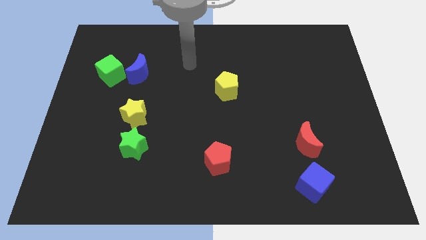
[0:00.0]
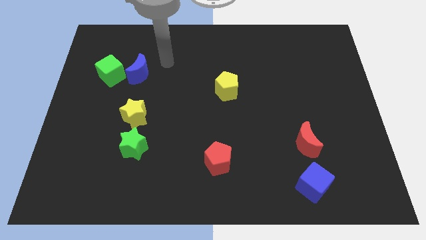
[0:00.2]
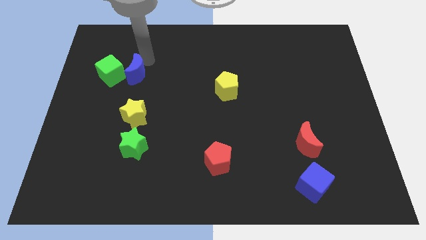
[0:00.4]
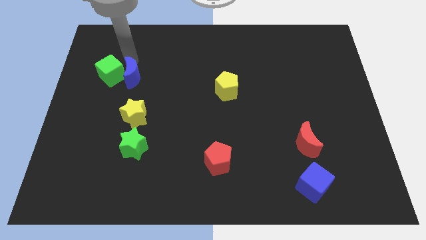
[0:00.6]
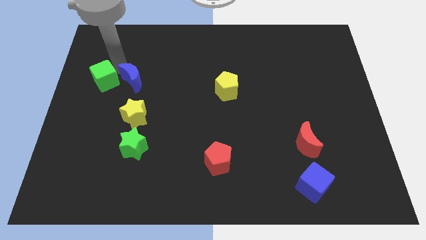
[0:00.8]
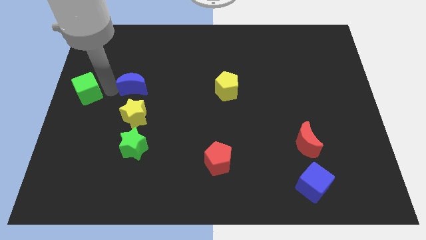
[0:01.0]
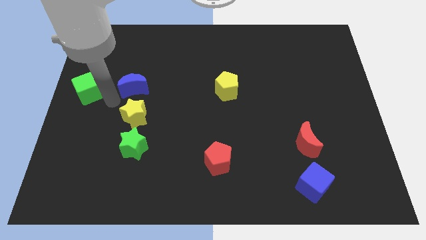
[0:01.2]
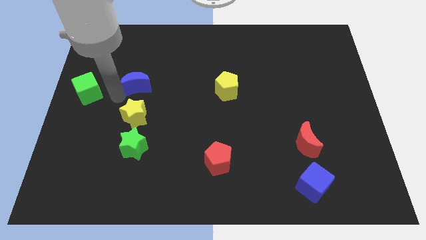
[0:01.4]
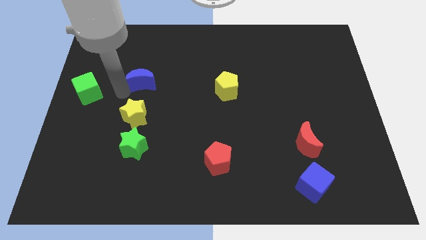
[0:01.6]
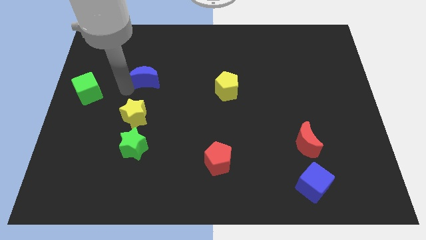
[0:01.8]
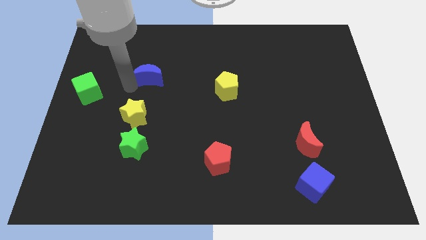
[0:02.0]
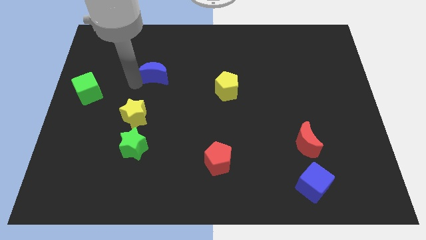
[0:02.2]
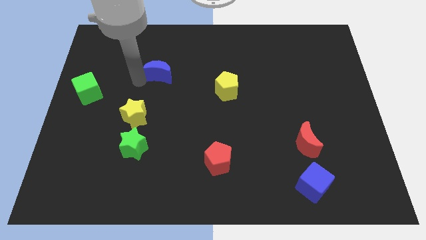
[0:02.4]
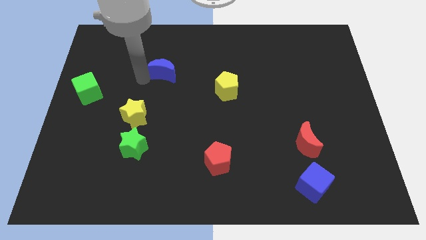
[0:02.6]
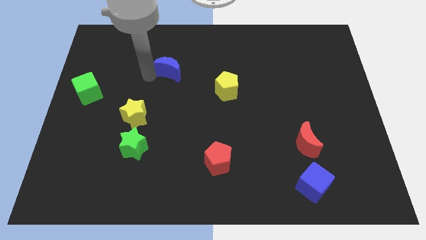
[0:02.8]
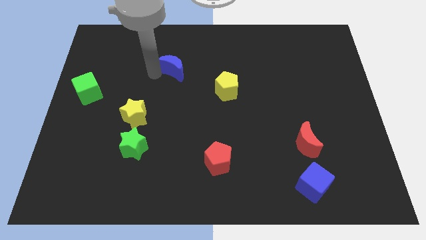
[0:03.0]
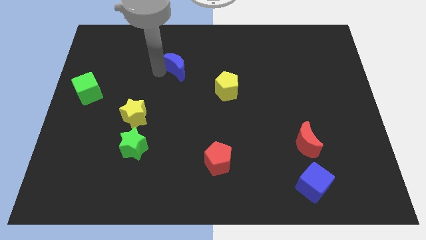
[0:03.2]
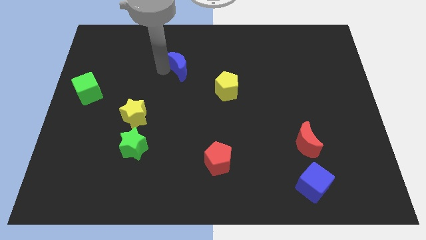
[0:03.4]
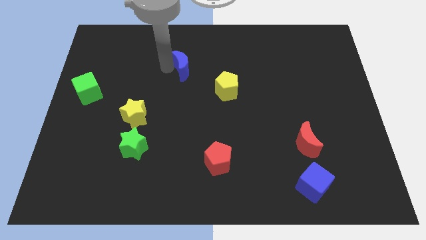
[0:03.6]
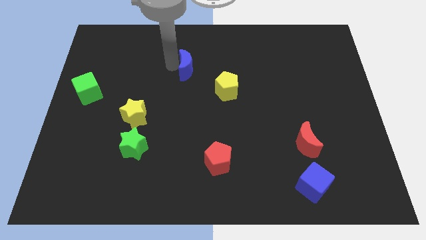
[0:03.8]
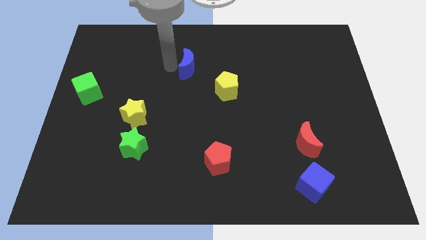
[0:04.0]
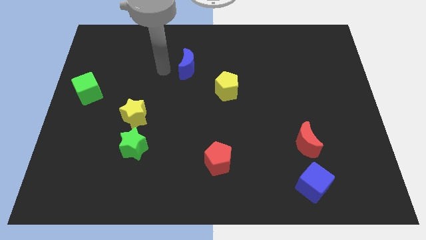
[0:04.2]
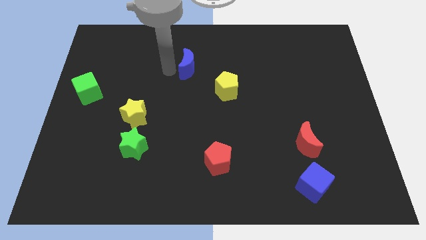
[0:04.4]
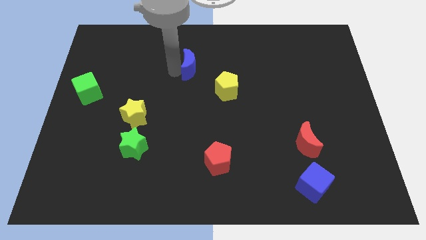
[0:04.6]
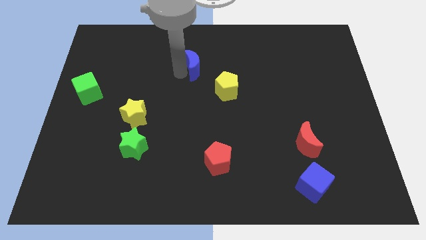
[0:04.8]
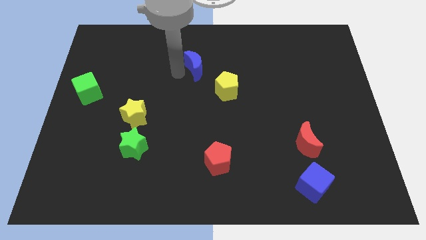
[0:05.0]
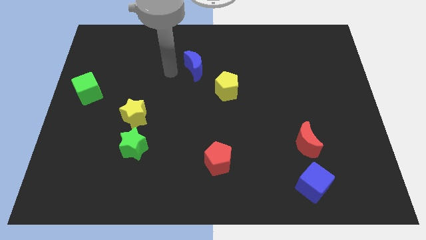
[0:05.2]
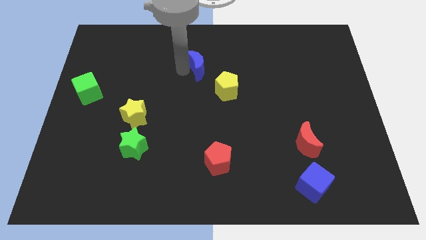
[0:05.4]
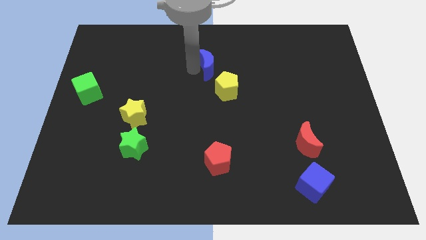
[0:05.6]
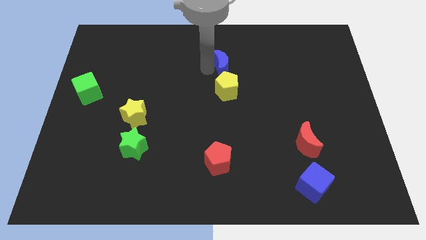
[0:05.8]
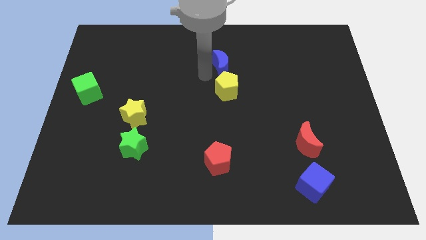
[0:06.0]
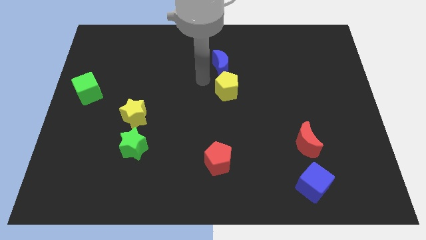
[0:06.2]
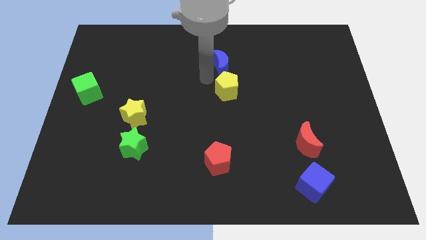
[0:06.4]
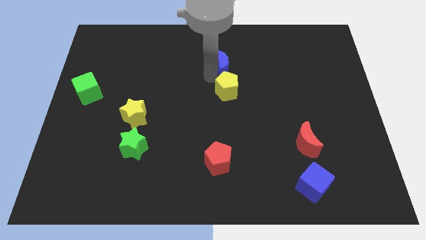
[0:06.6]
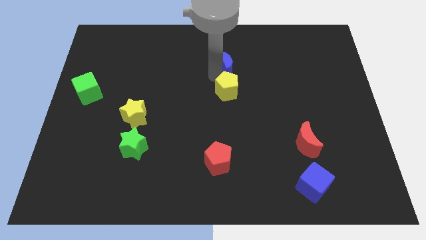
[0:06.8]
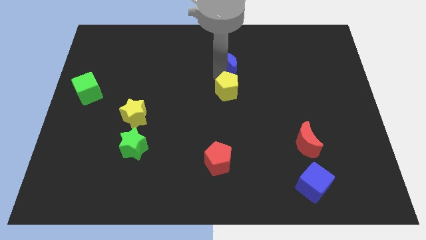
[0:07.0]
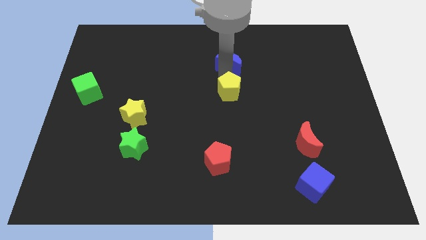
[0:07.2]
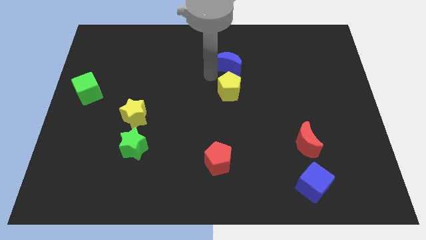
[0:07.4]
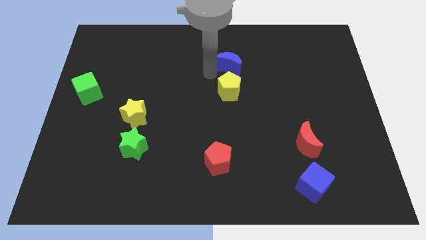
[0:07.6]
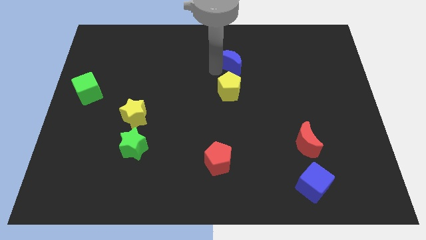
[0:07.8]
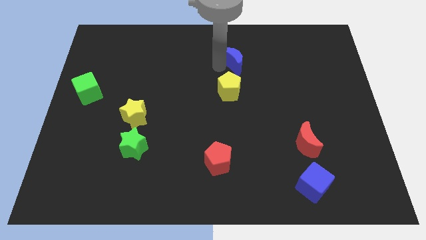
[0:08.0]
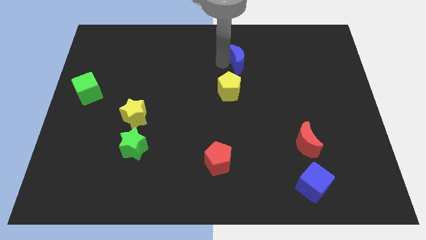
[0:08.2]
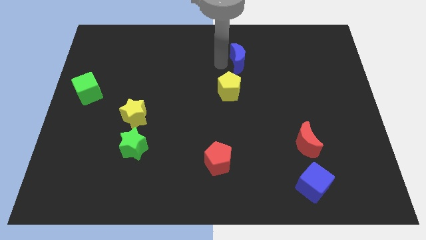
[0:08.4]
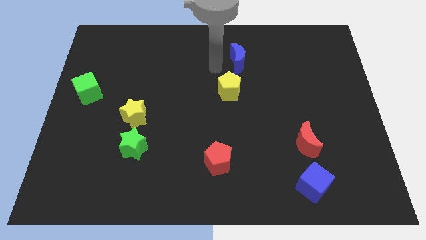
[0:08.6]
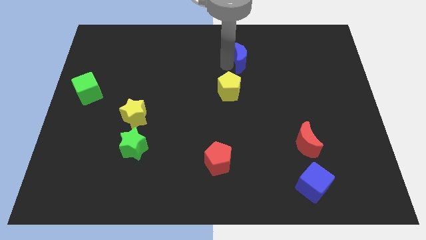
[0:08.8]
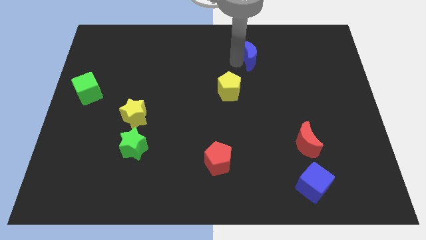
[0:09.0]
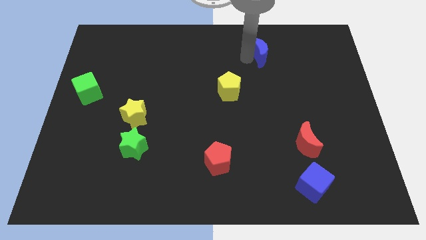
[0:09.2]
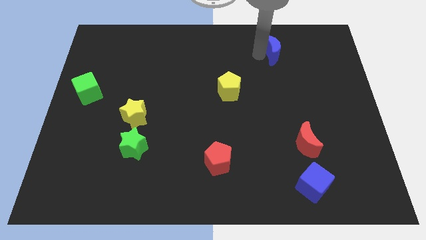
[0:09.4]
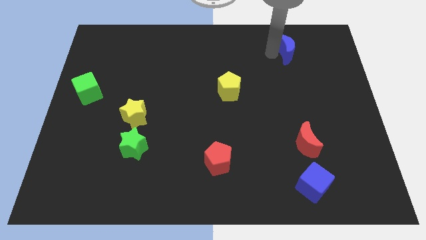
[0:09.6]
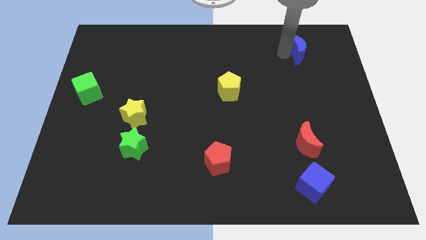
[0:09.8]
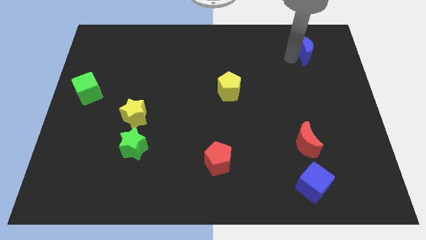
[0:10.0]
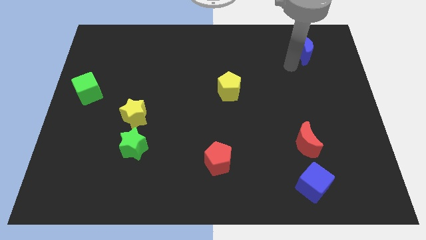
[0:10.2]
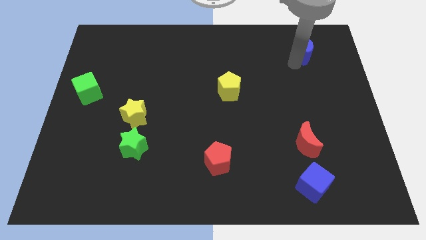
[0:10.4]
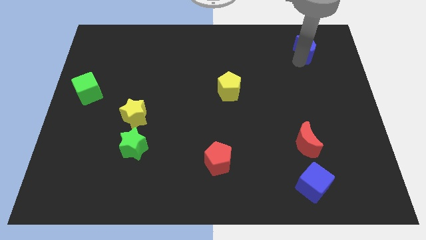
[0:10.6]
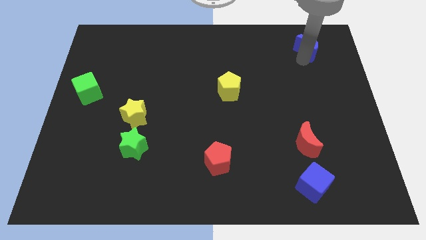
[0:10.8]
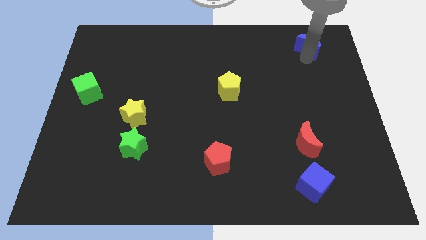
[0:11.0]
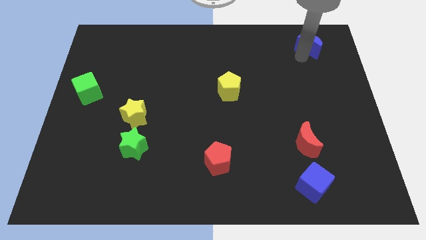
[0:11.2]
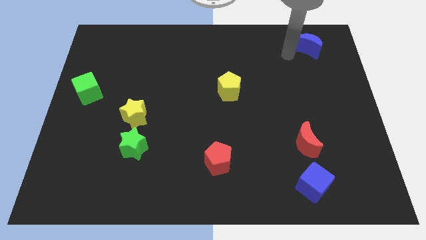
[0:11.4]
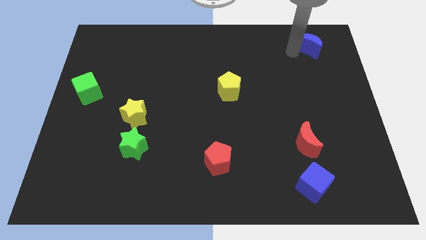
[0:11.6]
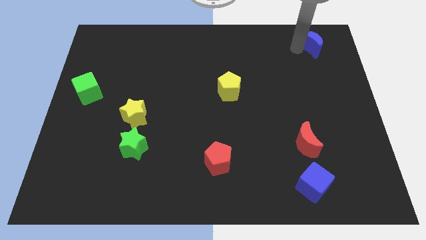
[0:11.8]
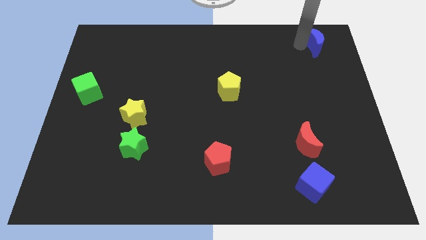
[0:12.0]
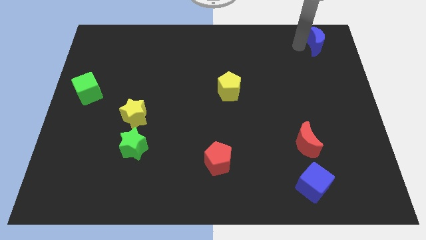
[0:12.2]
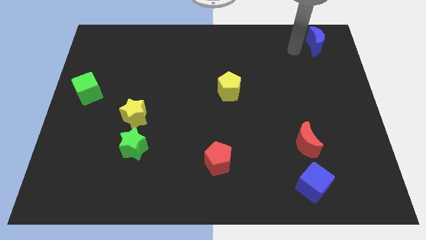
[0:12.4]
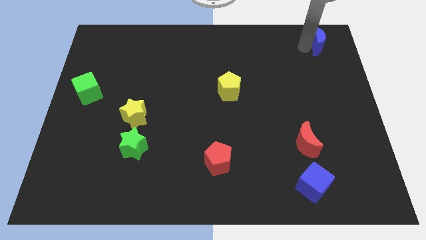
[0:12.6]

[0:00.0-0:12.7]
put the blue moon to the top right
